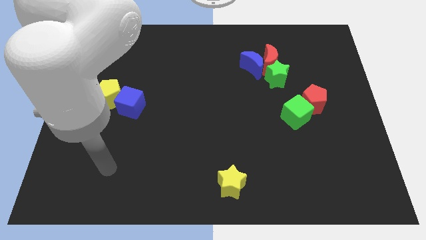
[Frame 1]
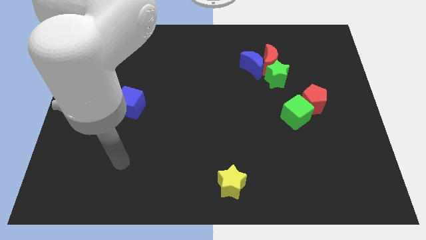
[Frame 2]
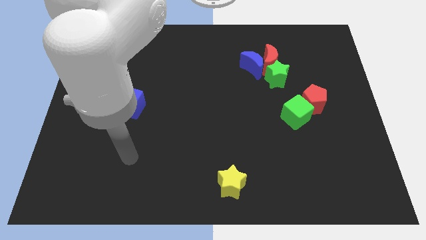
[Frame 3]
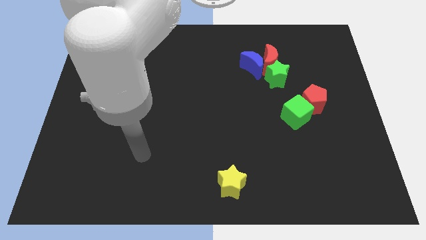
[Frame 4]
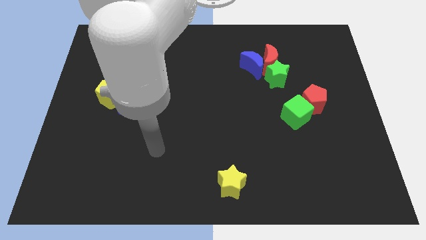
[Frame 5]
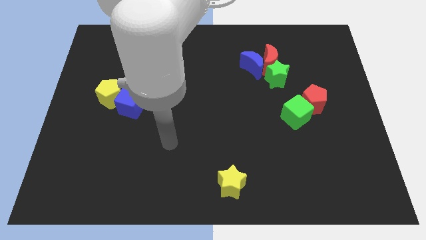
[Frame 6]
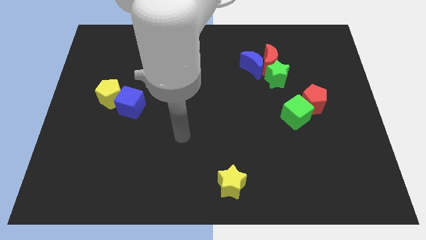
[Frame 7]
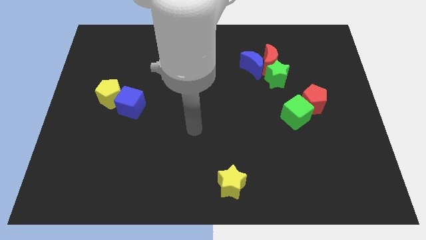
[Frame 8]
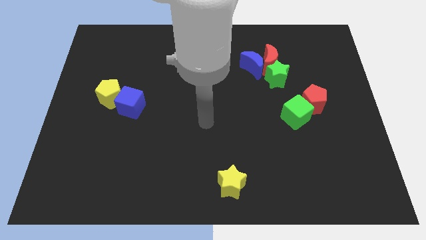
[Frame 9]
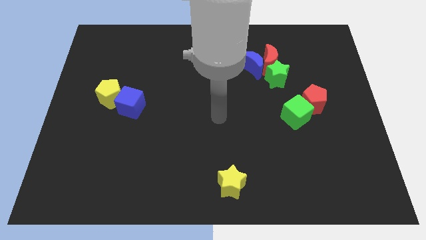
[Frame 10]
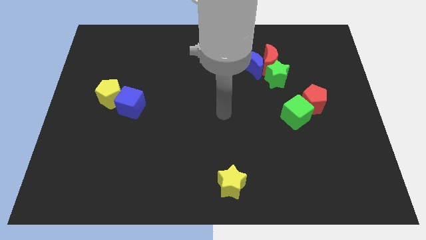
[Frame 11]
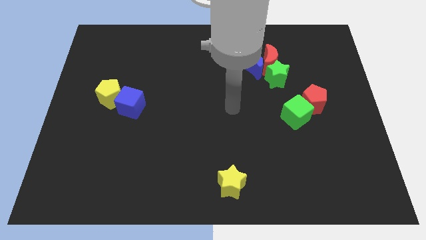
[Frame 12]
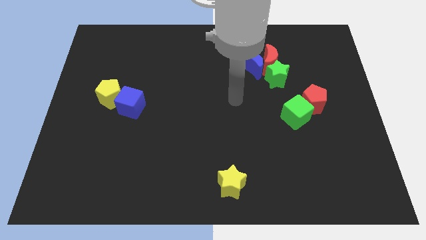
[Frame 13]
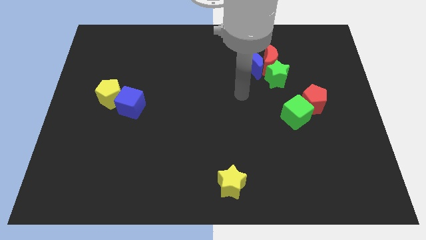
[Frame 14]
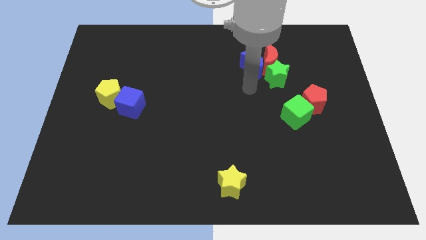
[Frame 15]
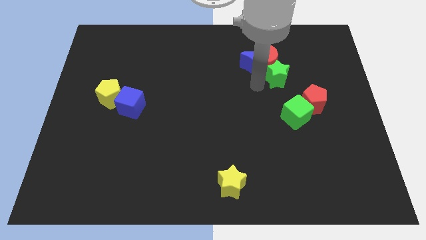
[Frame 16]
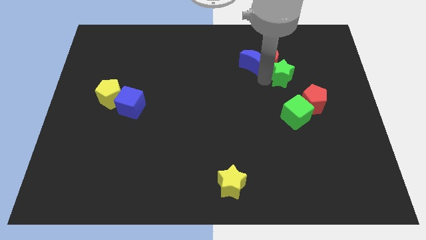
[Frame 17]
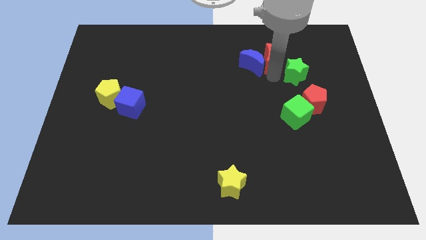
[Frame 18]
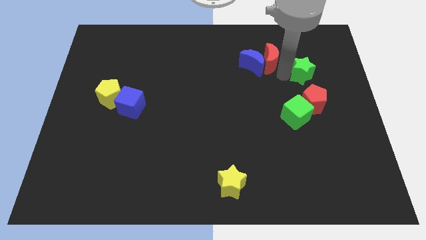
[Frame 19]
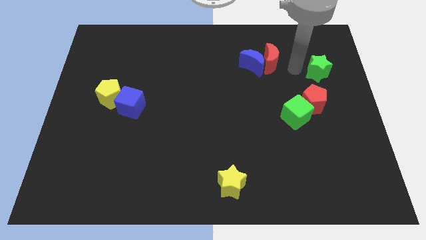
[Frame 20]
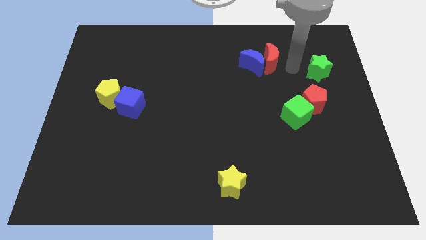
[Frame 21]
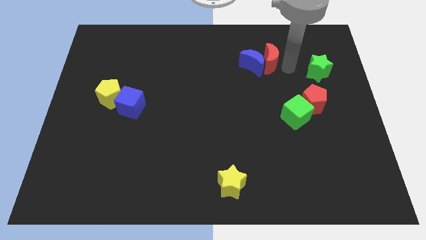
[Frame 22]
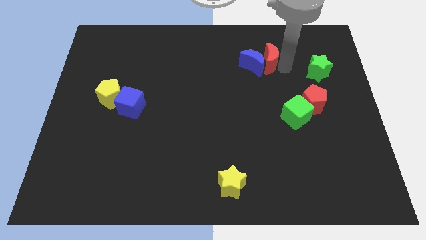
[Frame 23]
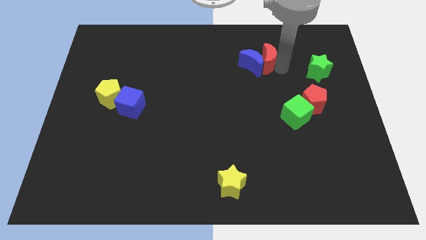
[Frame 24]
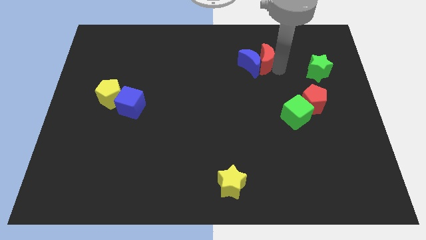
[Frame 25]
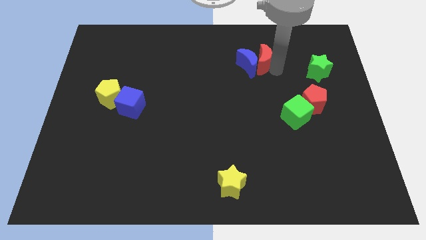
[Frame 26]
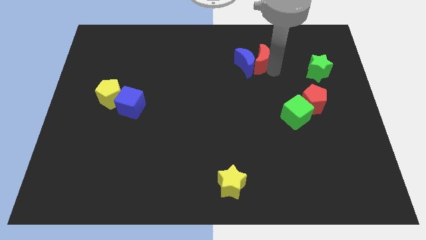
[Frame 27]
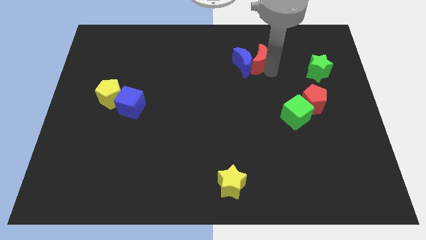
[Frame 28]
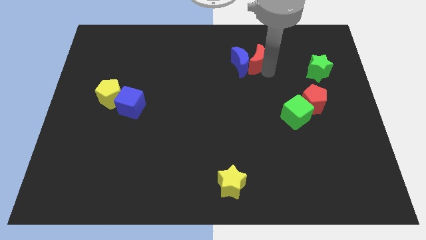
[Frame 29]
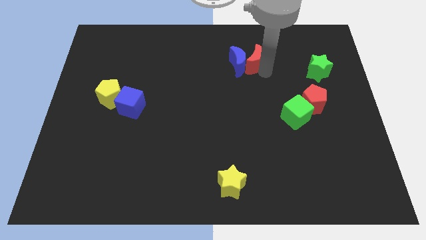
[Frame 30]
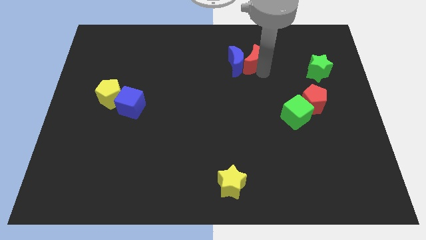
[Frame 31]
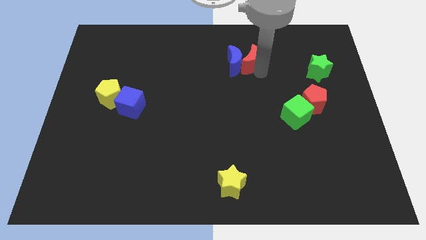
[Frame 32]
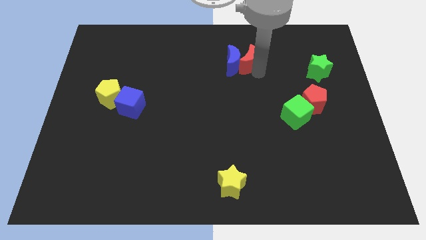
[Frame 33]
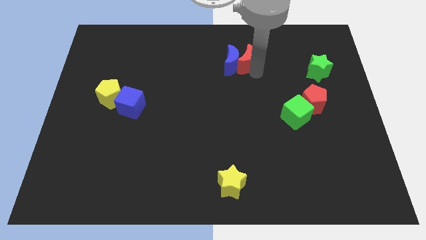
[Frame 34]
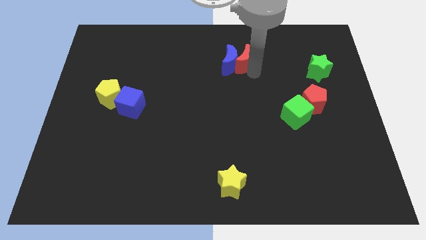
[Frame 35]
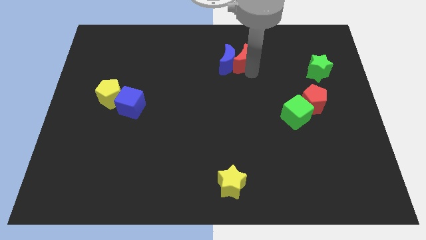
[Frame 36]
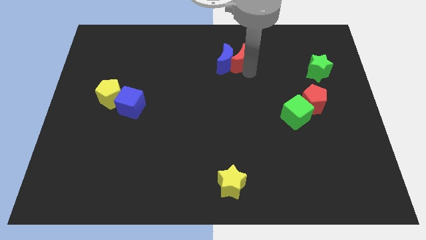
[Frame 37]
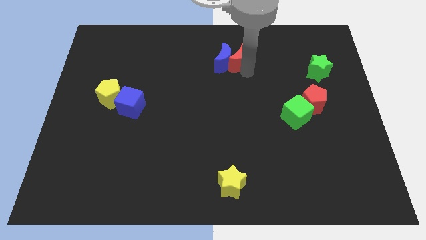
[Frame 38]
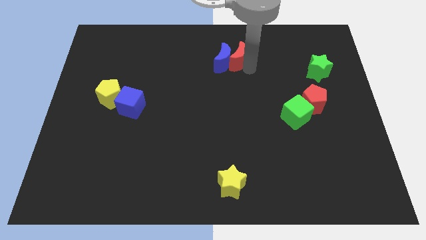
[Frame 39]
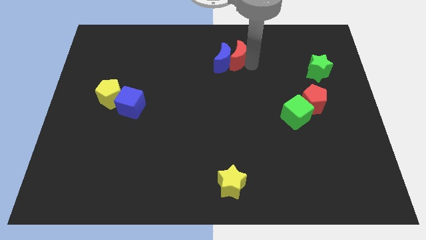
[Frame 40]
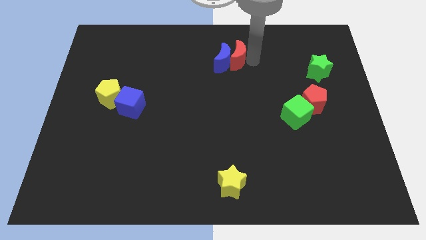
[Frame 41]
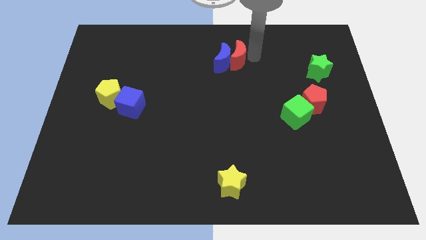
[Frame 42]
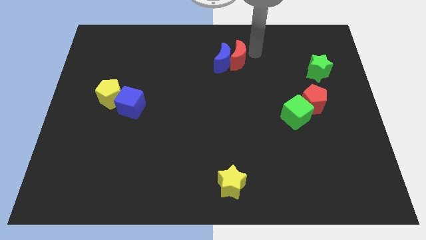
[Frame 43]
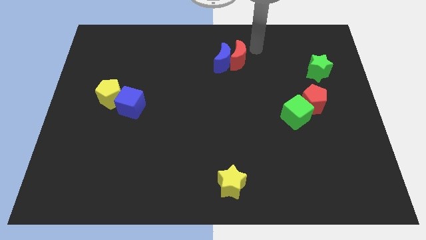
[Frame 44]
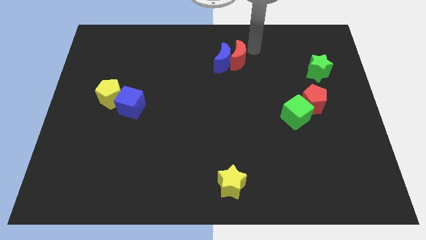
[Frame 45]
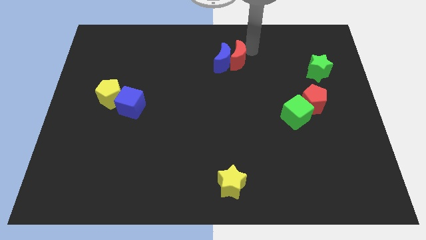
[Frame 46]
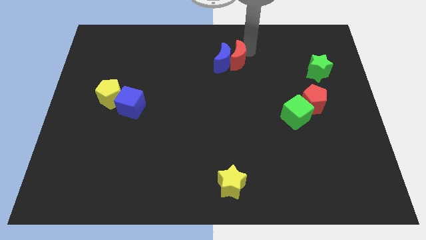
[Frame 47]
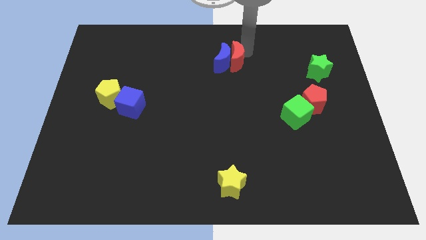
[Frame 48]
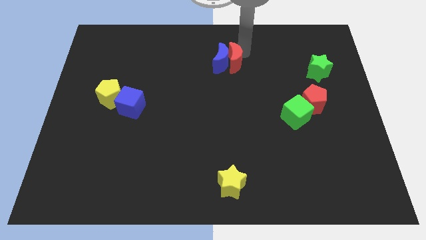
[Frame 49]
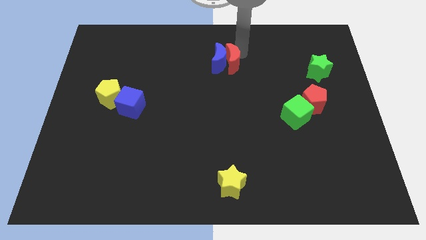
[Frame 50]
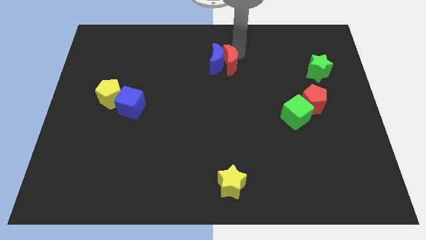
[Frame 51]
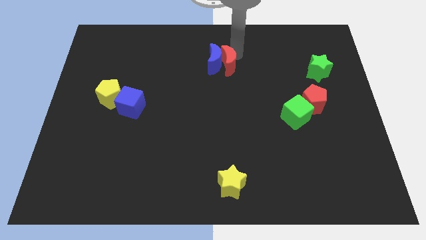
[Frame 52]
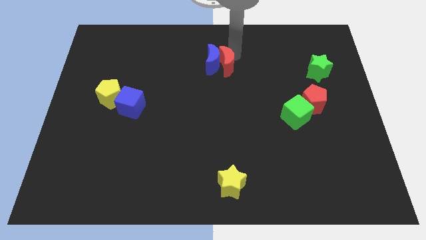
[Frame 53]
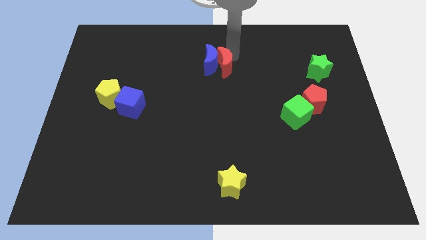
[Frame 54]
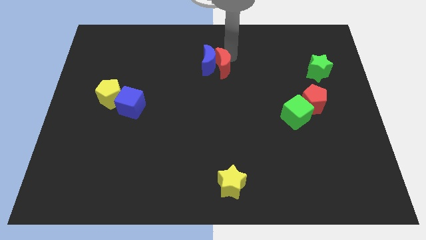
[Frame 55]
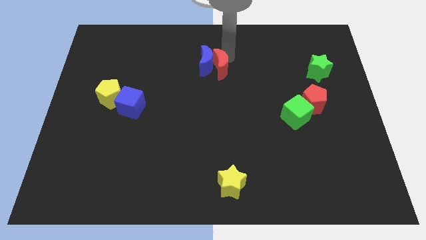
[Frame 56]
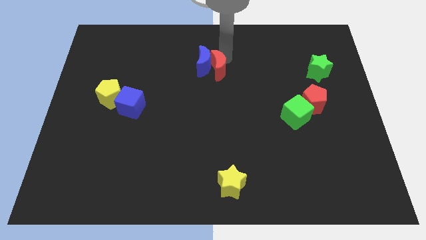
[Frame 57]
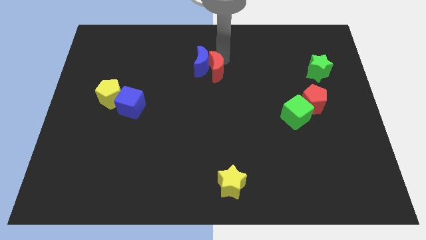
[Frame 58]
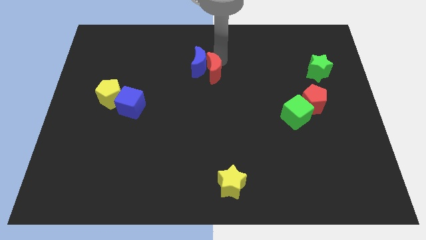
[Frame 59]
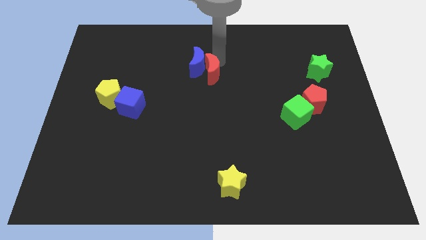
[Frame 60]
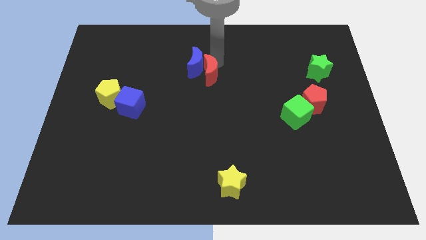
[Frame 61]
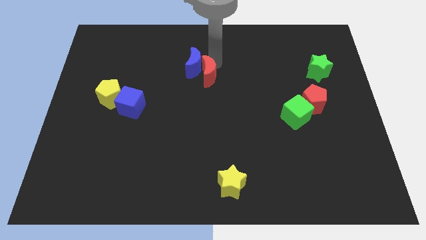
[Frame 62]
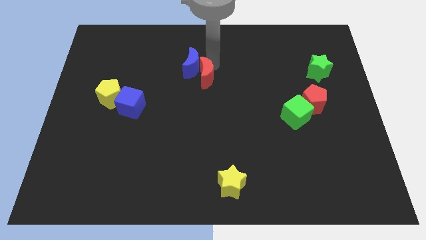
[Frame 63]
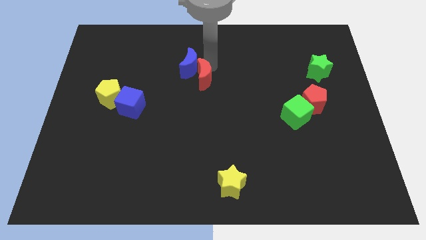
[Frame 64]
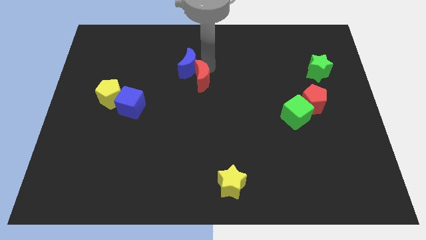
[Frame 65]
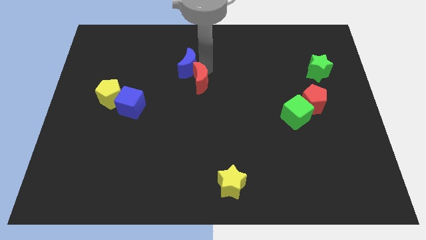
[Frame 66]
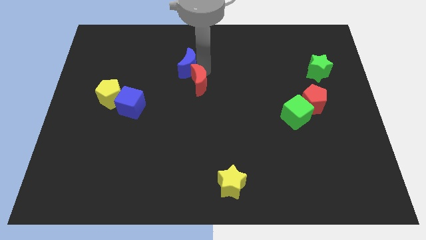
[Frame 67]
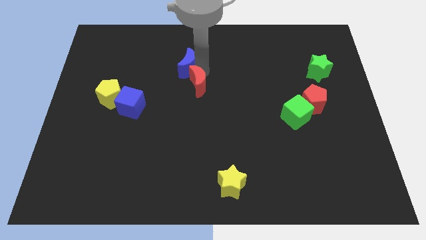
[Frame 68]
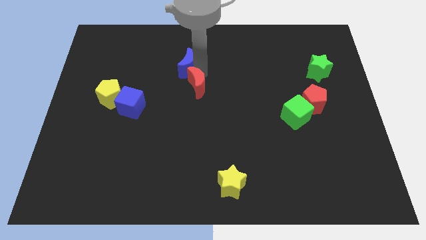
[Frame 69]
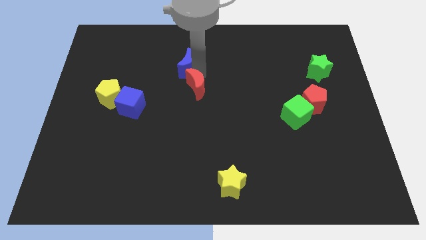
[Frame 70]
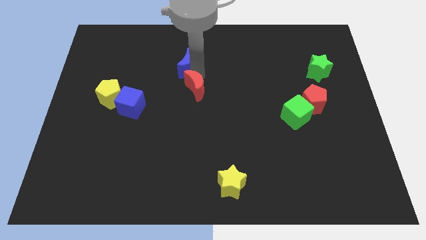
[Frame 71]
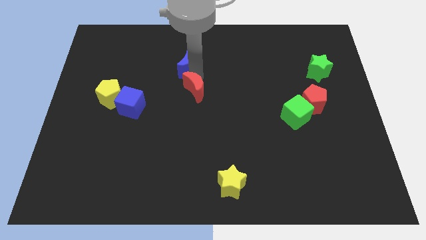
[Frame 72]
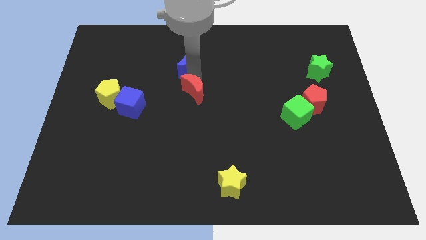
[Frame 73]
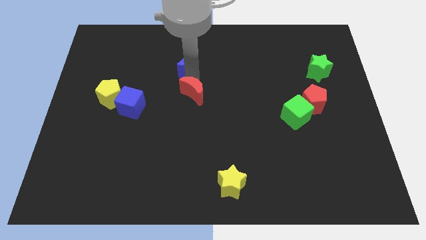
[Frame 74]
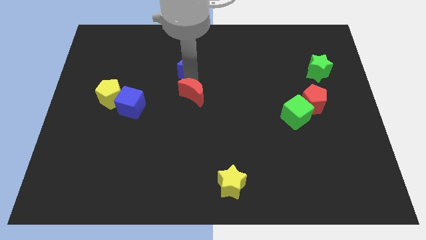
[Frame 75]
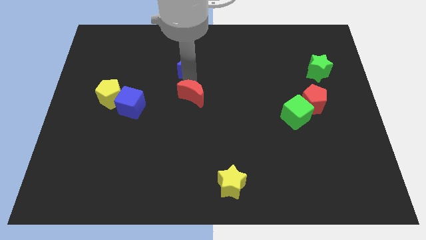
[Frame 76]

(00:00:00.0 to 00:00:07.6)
slide the red moon downwards and left diagonally

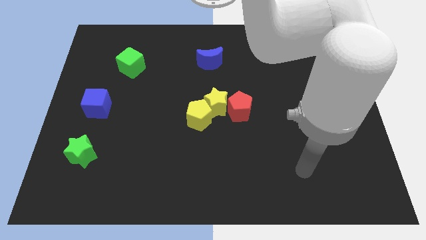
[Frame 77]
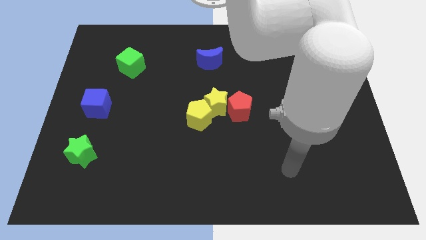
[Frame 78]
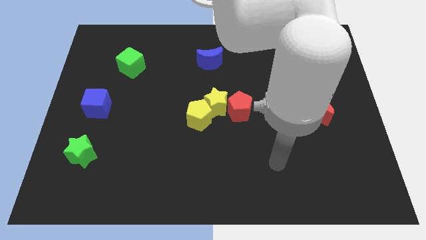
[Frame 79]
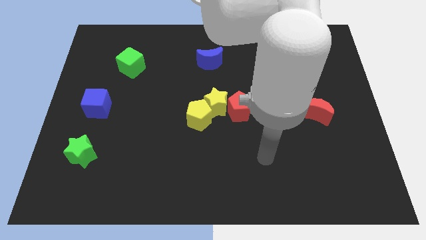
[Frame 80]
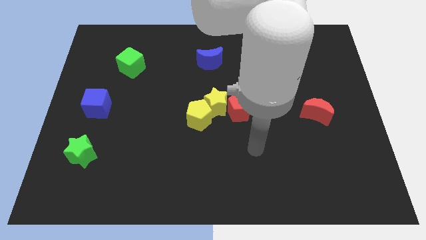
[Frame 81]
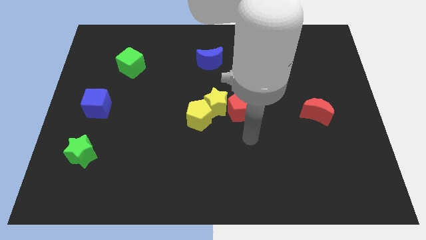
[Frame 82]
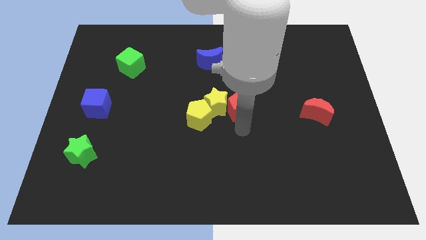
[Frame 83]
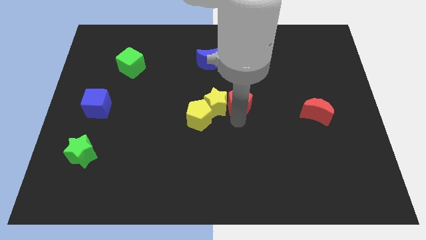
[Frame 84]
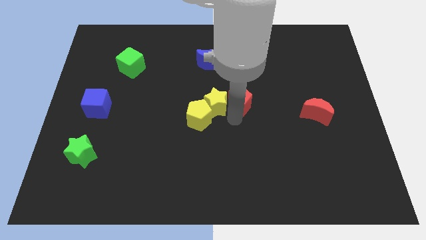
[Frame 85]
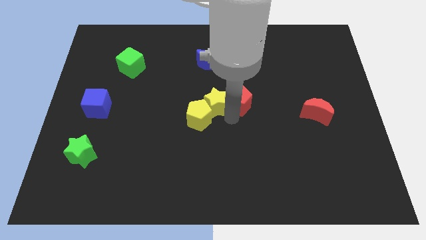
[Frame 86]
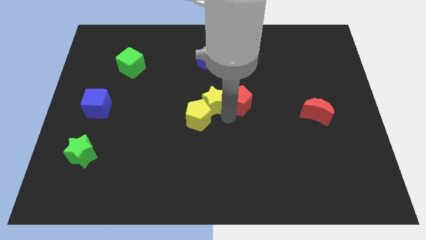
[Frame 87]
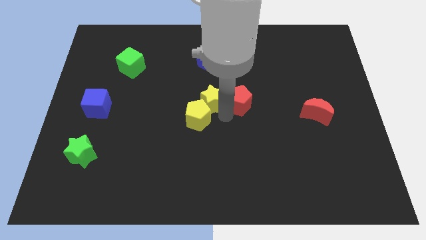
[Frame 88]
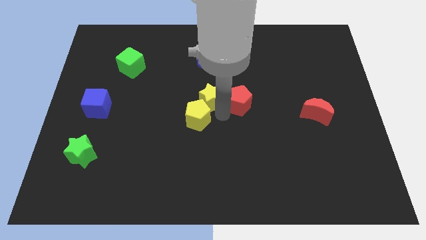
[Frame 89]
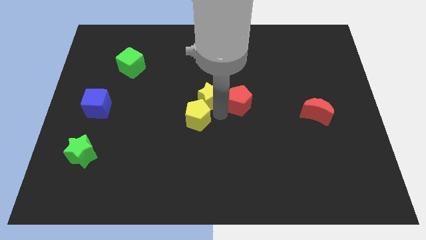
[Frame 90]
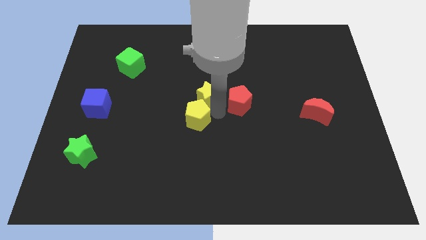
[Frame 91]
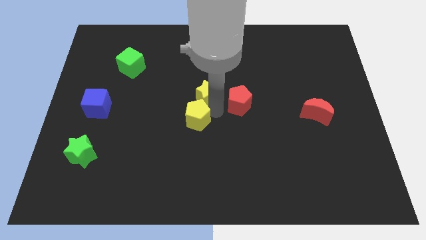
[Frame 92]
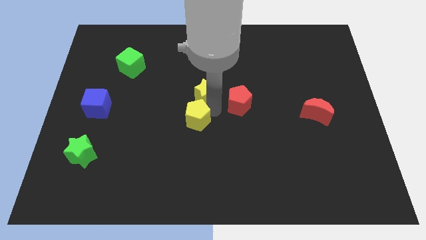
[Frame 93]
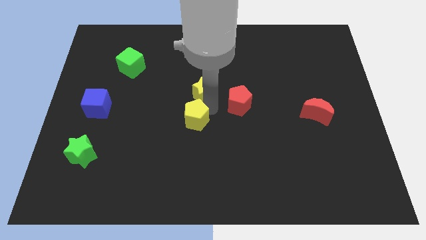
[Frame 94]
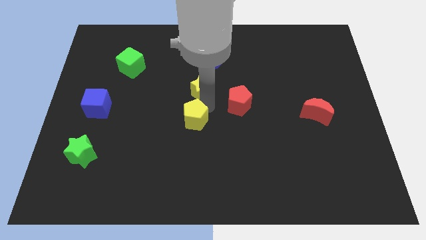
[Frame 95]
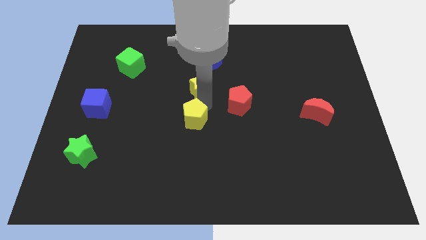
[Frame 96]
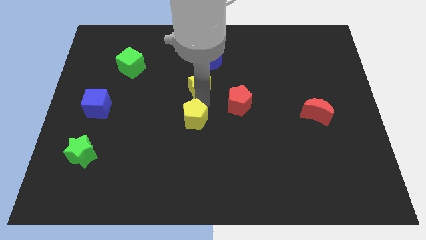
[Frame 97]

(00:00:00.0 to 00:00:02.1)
slightly push the yellow star up and to the left diagonally
